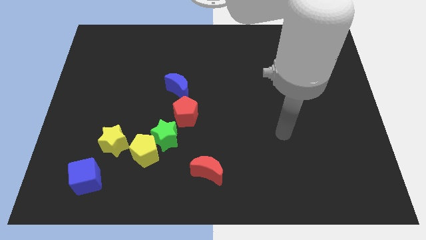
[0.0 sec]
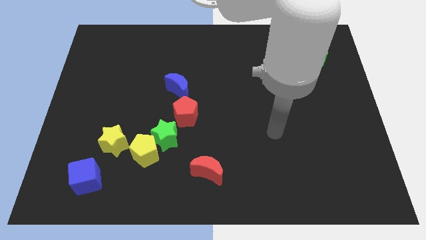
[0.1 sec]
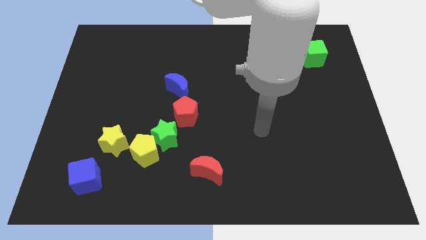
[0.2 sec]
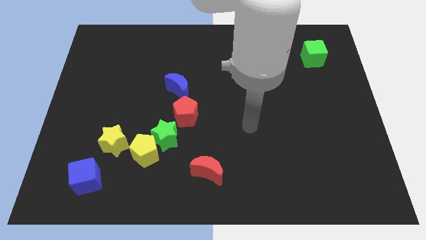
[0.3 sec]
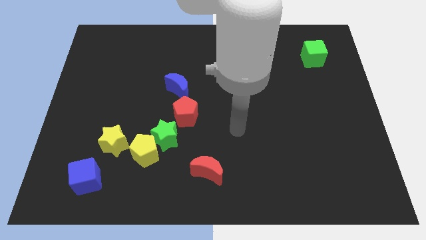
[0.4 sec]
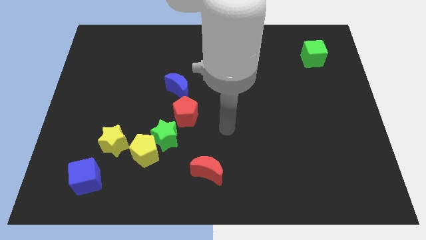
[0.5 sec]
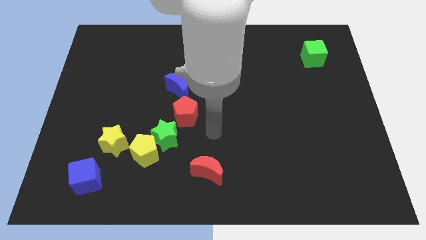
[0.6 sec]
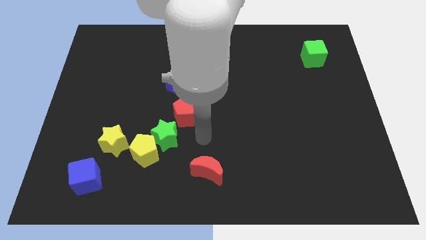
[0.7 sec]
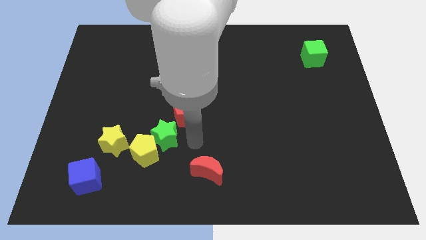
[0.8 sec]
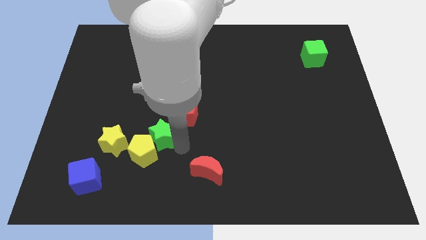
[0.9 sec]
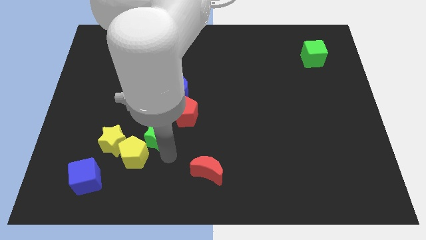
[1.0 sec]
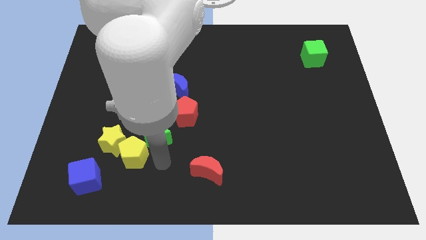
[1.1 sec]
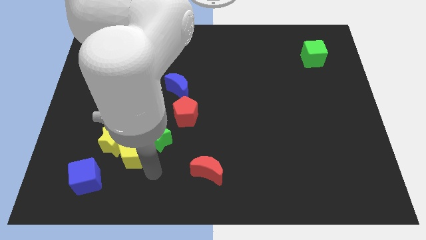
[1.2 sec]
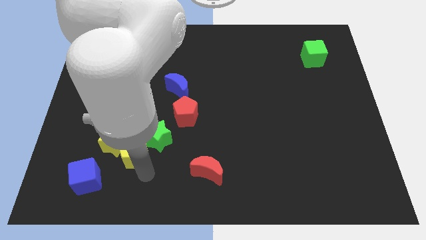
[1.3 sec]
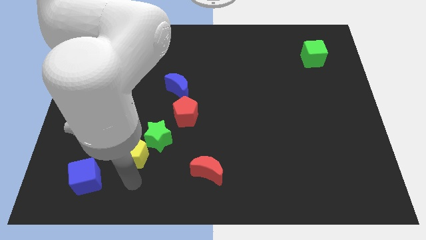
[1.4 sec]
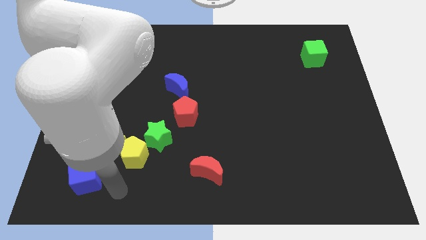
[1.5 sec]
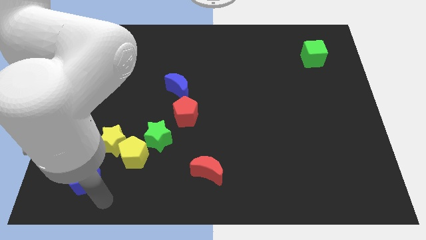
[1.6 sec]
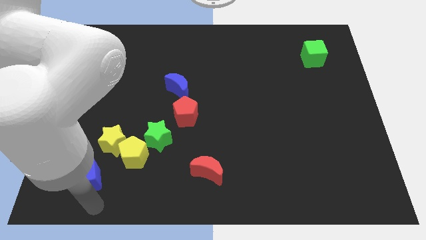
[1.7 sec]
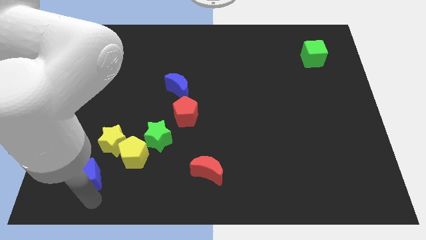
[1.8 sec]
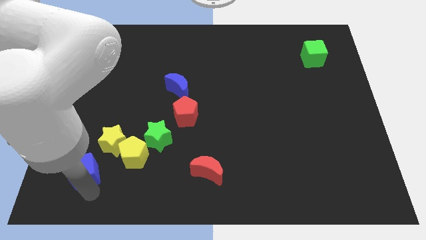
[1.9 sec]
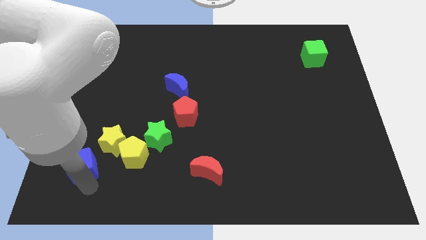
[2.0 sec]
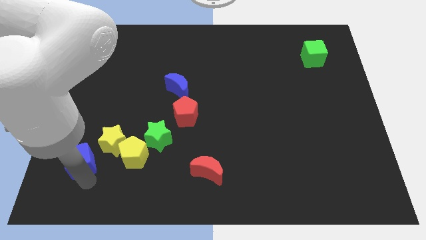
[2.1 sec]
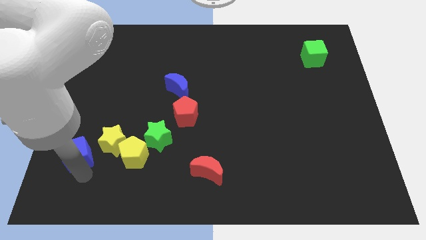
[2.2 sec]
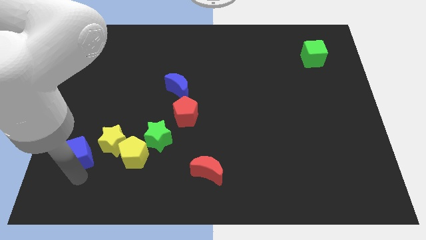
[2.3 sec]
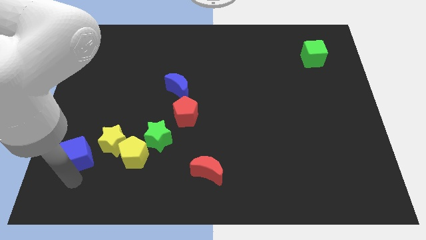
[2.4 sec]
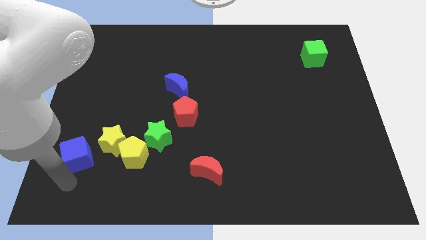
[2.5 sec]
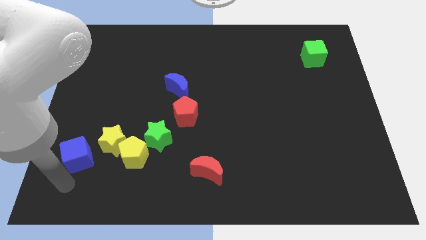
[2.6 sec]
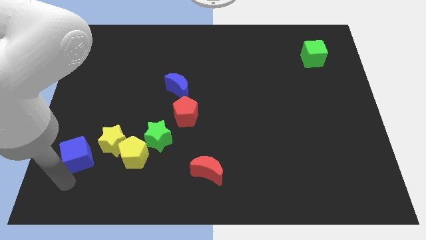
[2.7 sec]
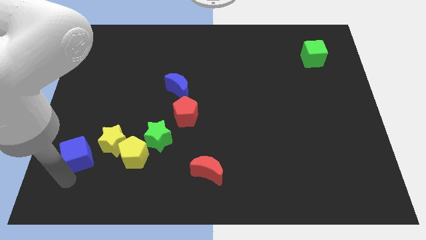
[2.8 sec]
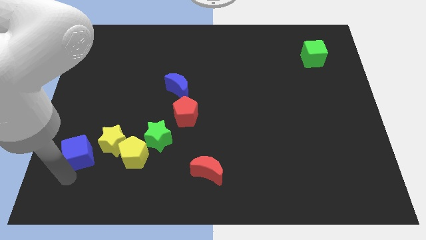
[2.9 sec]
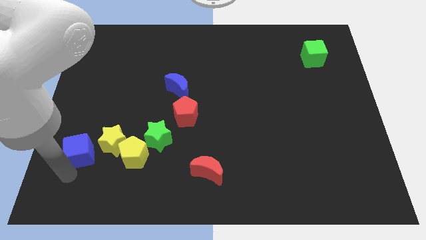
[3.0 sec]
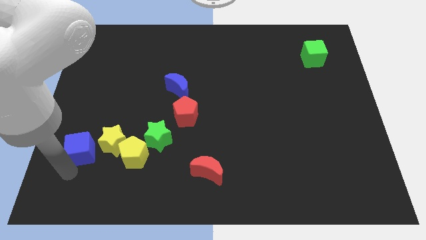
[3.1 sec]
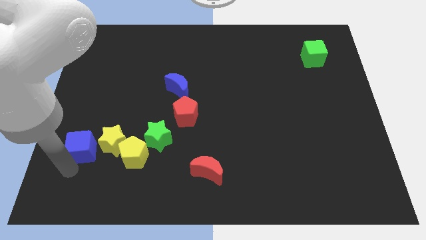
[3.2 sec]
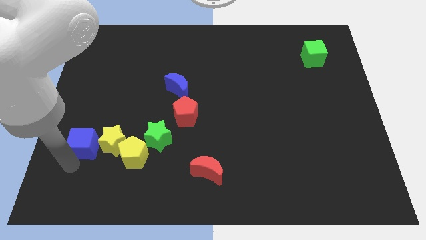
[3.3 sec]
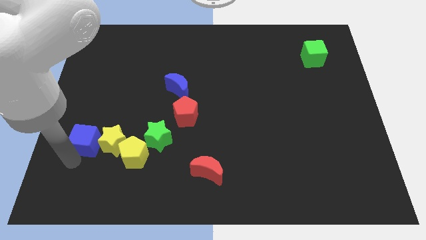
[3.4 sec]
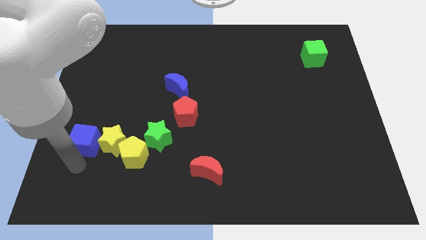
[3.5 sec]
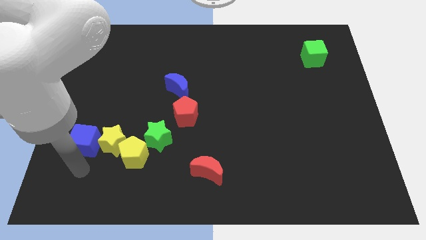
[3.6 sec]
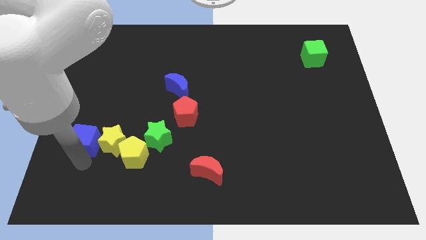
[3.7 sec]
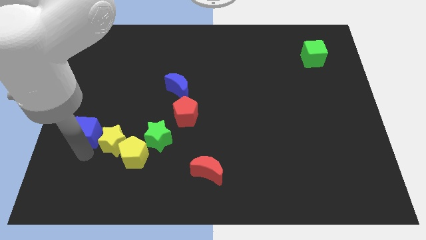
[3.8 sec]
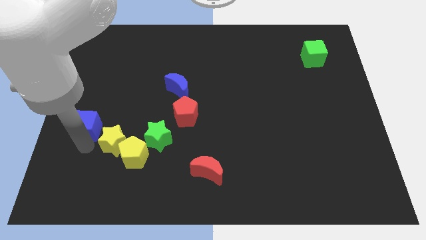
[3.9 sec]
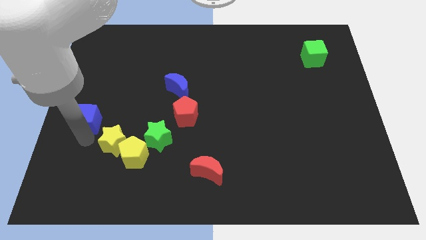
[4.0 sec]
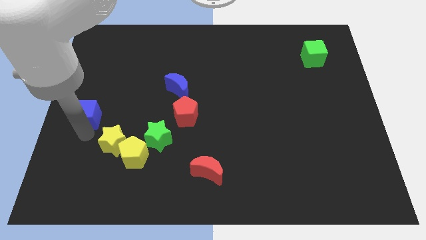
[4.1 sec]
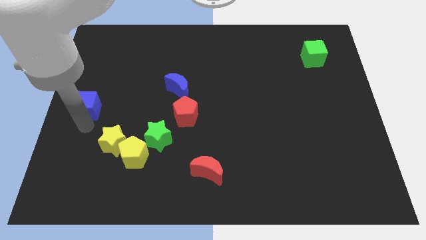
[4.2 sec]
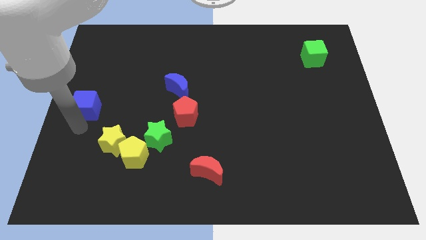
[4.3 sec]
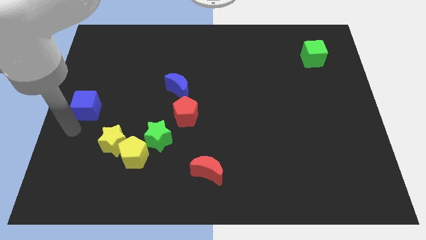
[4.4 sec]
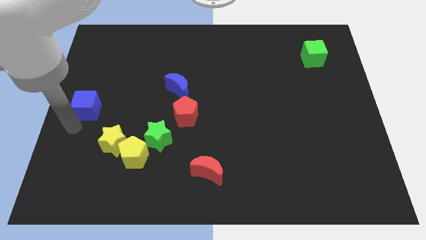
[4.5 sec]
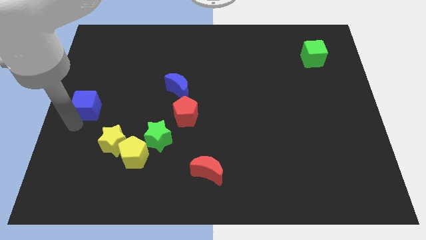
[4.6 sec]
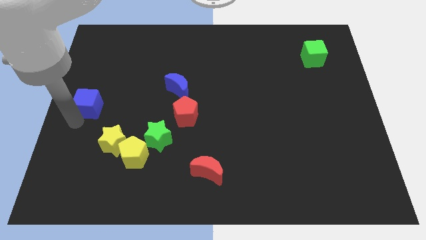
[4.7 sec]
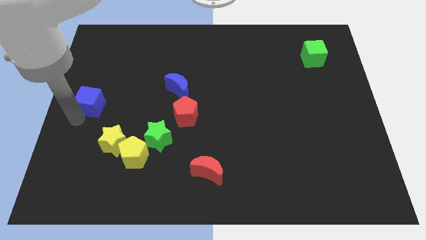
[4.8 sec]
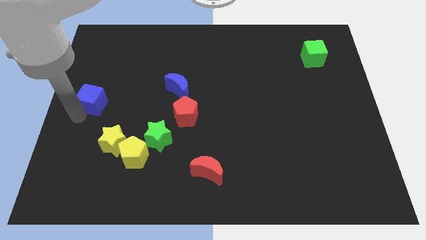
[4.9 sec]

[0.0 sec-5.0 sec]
move the blue cube upwards

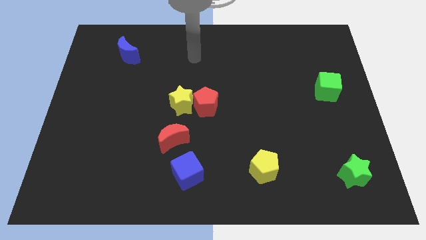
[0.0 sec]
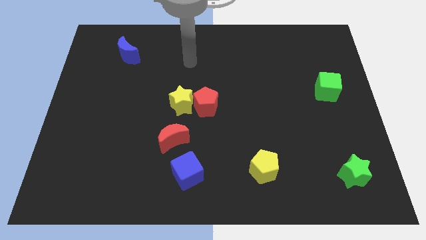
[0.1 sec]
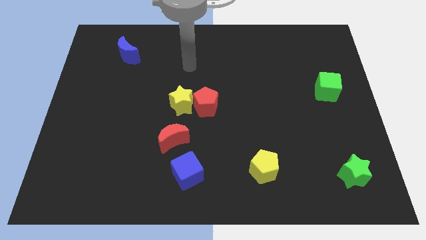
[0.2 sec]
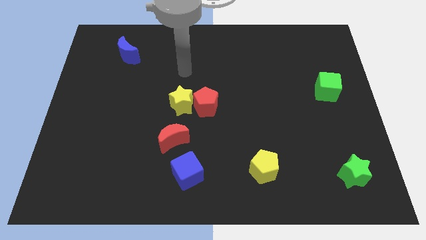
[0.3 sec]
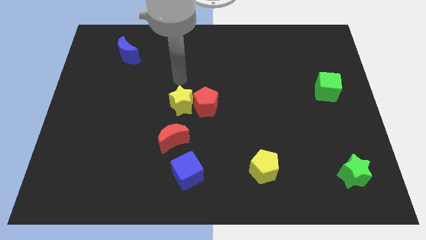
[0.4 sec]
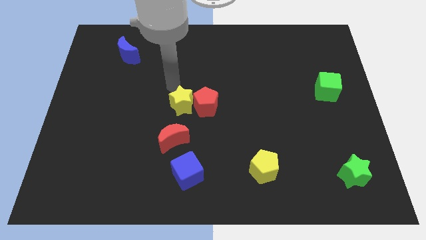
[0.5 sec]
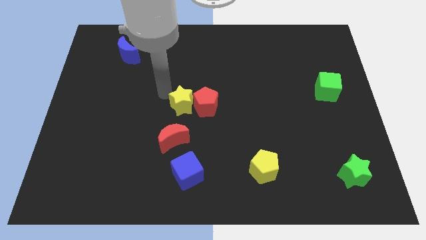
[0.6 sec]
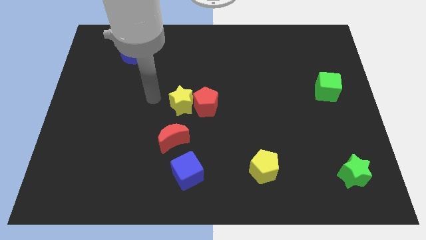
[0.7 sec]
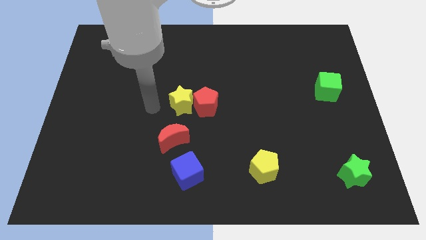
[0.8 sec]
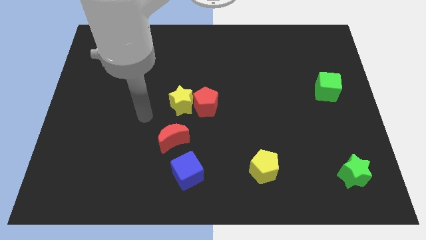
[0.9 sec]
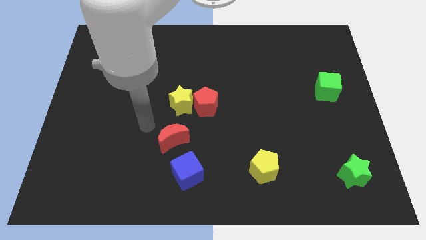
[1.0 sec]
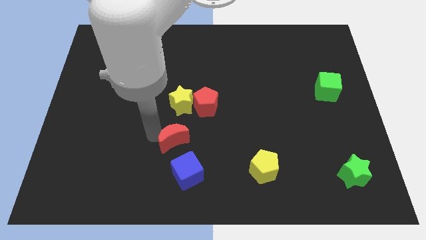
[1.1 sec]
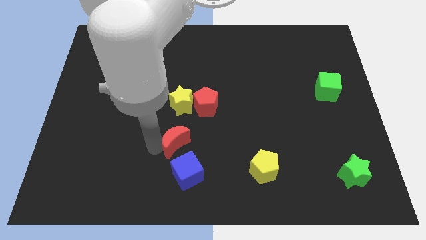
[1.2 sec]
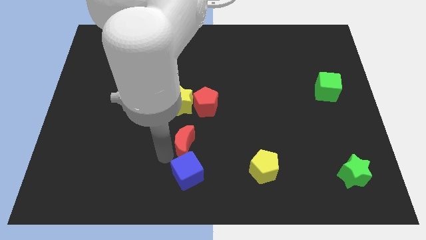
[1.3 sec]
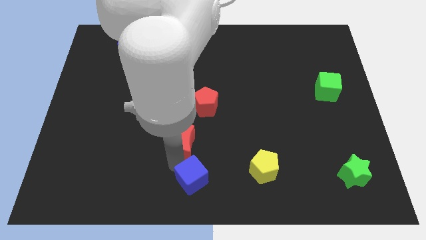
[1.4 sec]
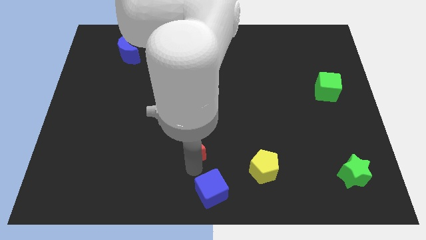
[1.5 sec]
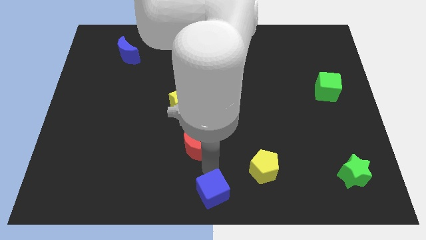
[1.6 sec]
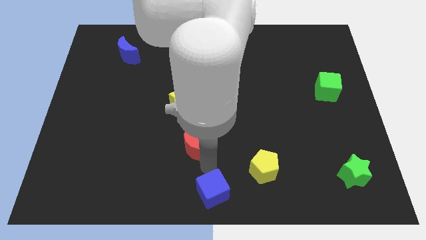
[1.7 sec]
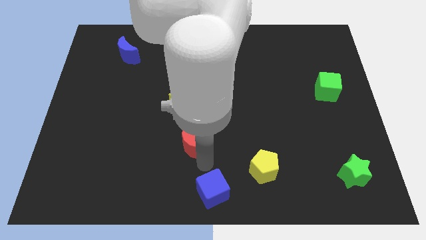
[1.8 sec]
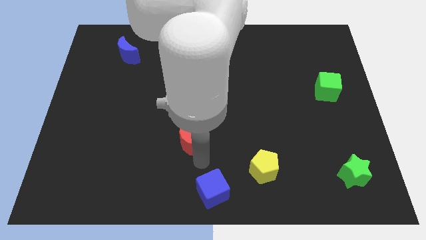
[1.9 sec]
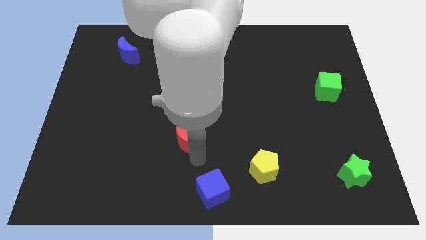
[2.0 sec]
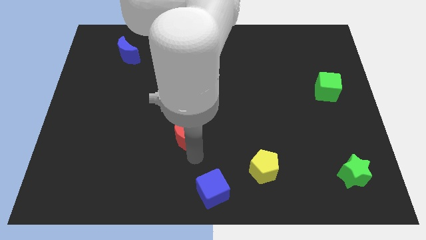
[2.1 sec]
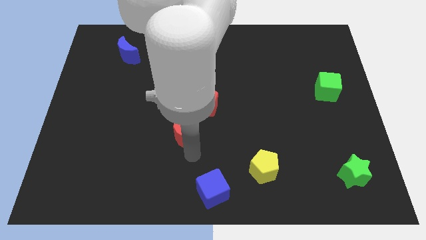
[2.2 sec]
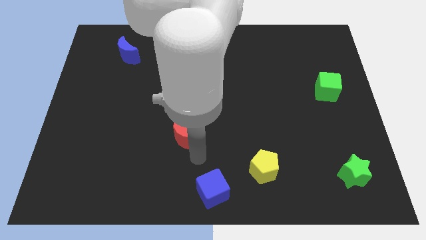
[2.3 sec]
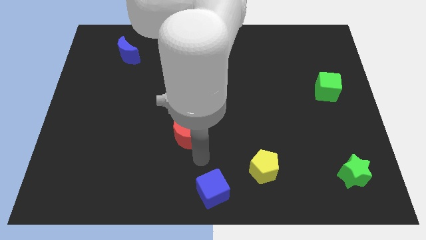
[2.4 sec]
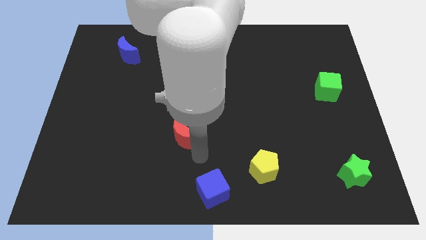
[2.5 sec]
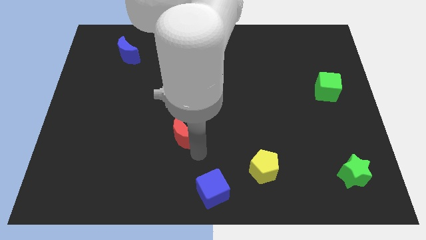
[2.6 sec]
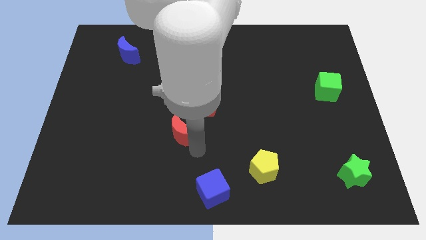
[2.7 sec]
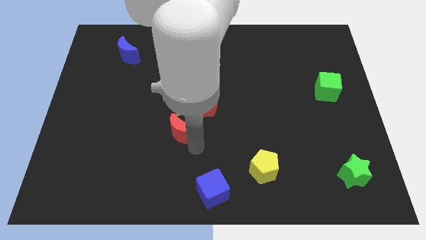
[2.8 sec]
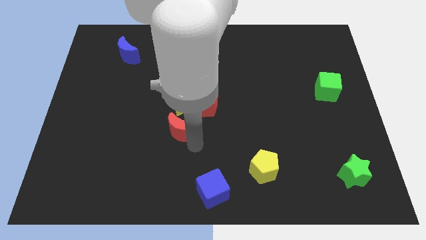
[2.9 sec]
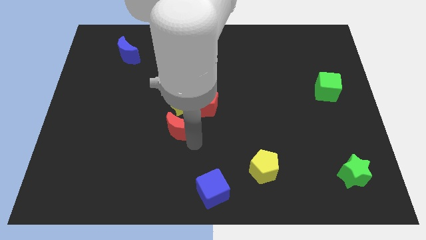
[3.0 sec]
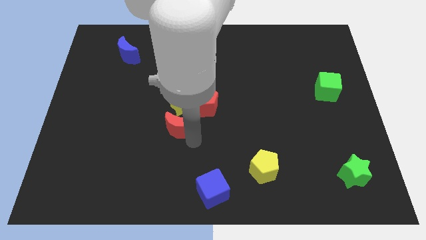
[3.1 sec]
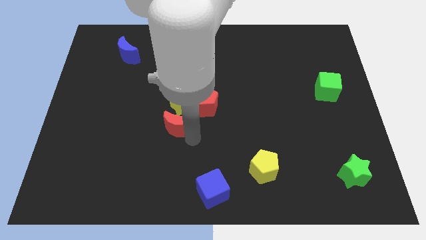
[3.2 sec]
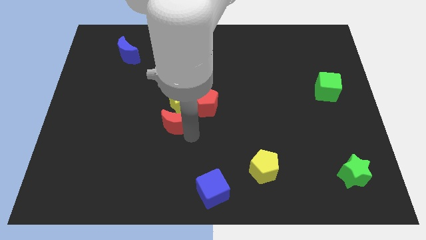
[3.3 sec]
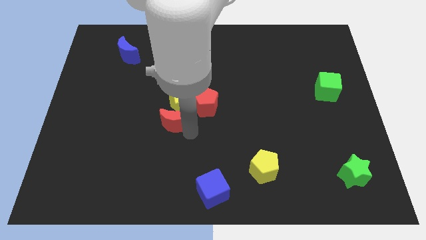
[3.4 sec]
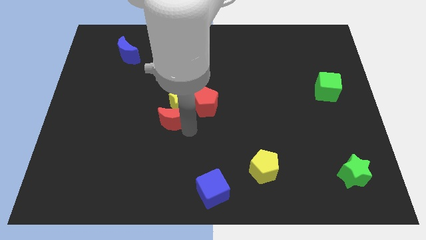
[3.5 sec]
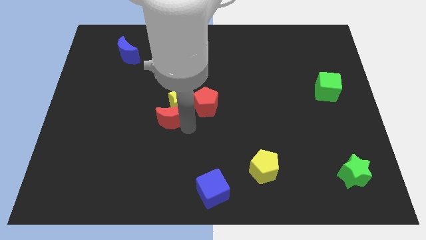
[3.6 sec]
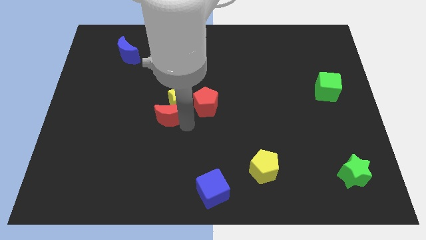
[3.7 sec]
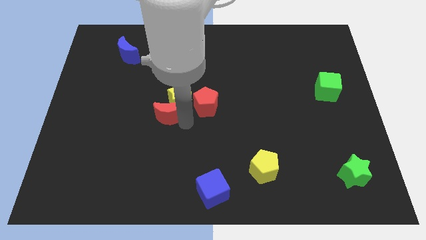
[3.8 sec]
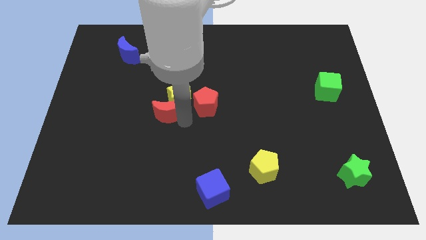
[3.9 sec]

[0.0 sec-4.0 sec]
slightly move the red moon up
